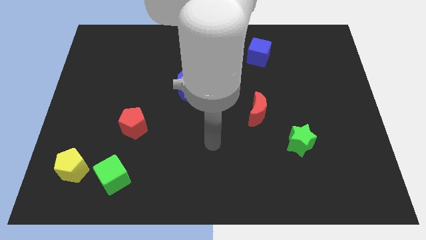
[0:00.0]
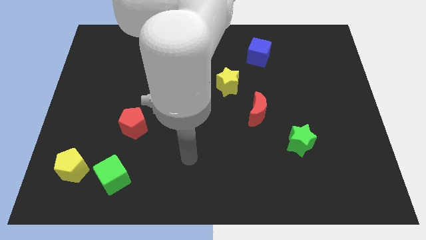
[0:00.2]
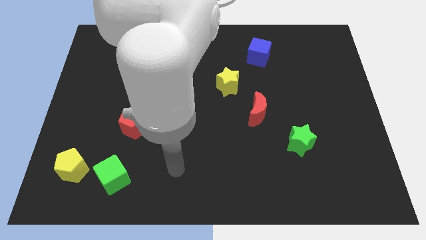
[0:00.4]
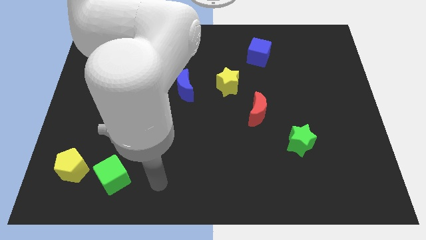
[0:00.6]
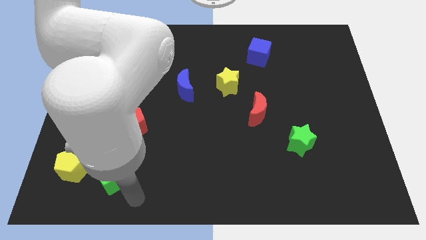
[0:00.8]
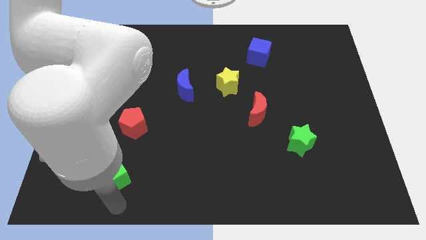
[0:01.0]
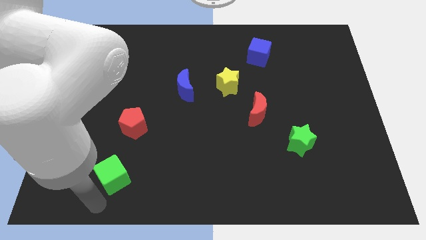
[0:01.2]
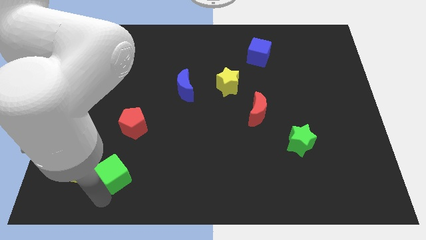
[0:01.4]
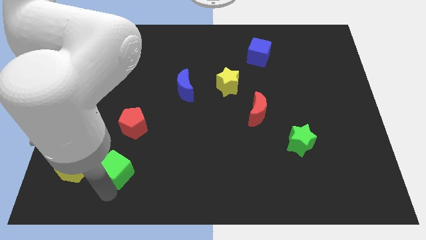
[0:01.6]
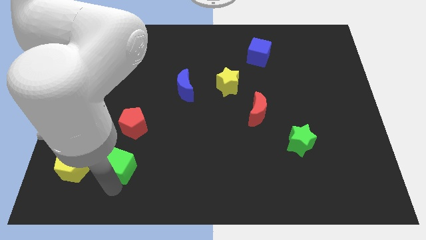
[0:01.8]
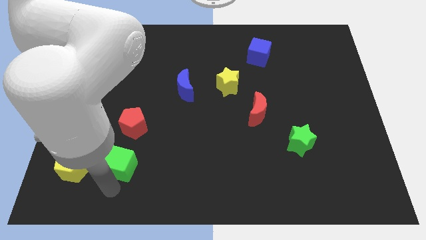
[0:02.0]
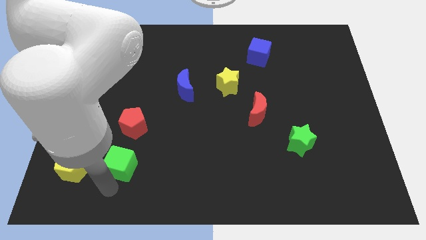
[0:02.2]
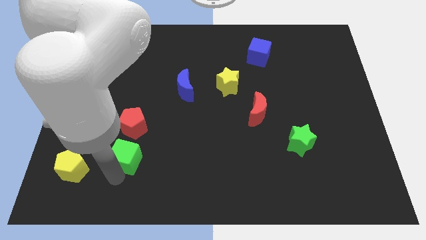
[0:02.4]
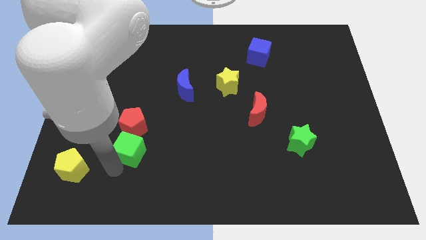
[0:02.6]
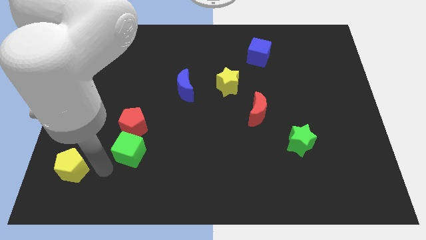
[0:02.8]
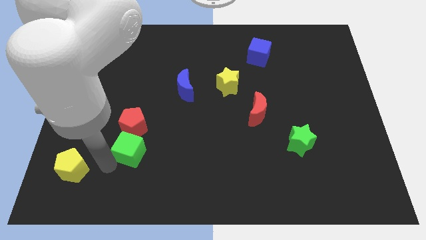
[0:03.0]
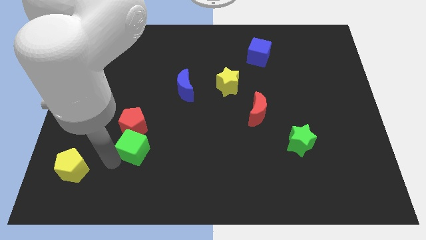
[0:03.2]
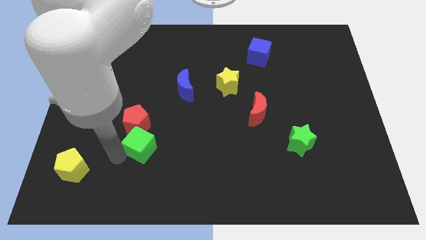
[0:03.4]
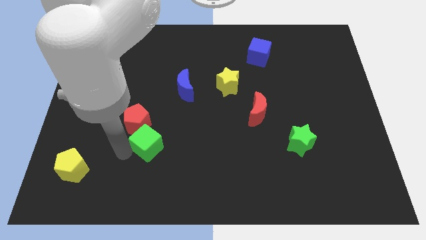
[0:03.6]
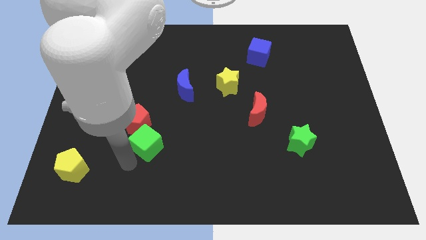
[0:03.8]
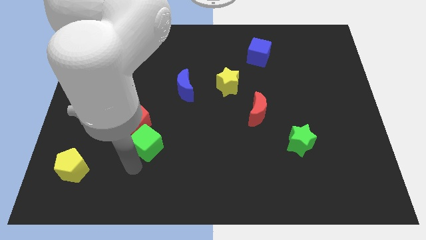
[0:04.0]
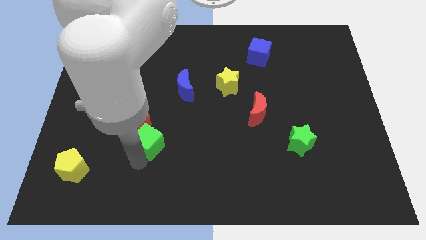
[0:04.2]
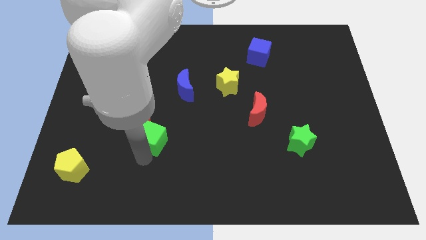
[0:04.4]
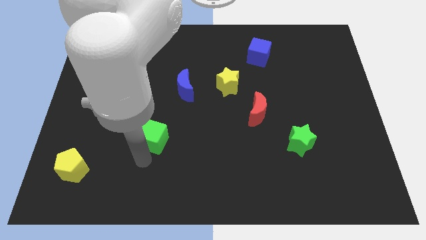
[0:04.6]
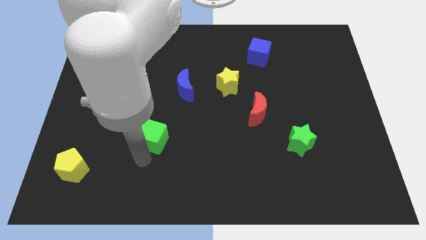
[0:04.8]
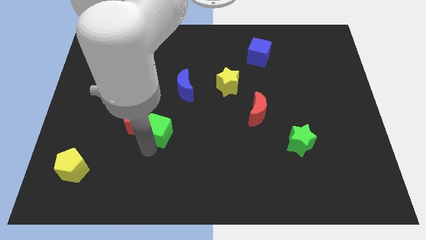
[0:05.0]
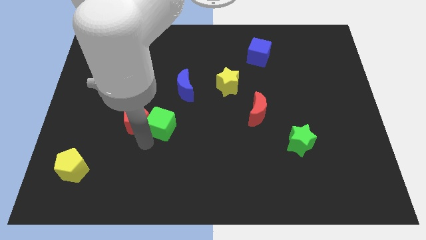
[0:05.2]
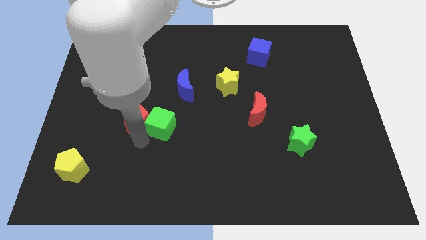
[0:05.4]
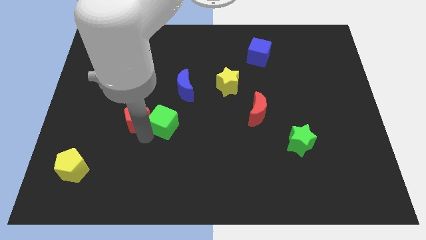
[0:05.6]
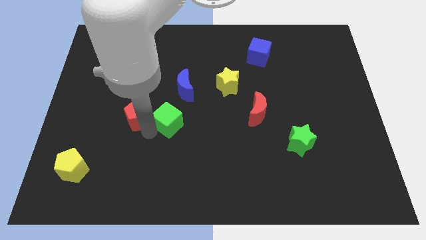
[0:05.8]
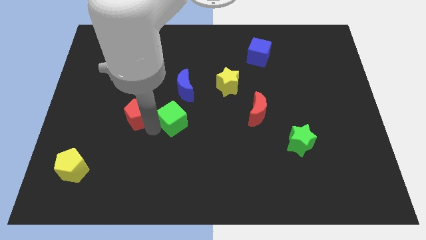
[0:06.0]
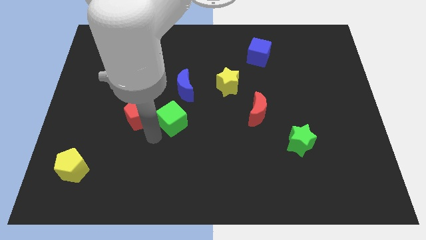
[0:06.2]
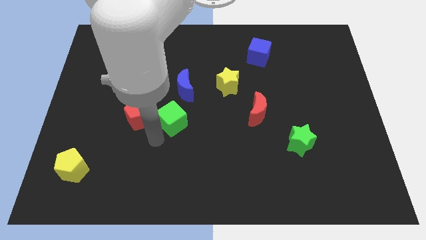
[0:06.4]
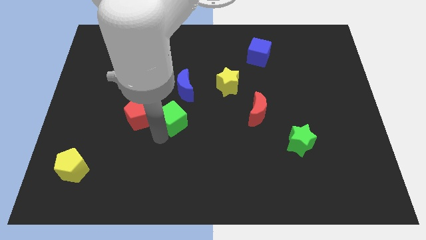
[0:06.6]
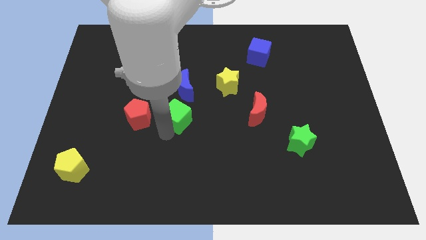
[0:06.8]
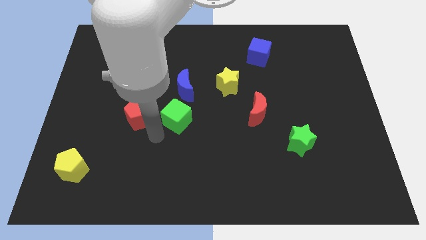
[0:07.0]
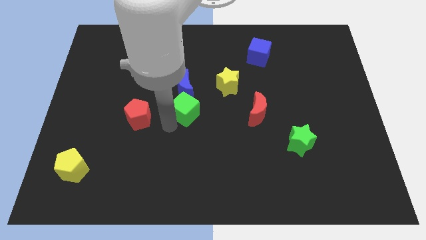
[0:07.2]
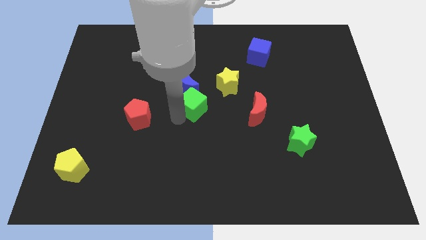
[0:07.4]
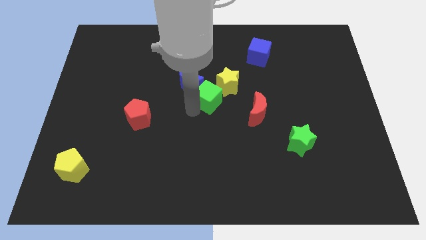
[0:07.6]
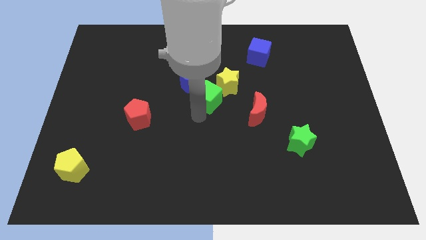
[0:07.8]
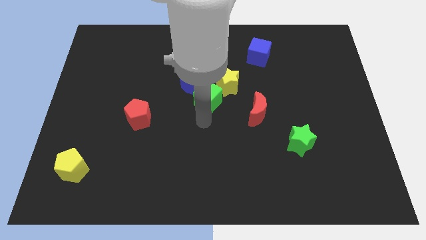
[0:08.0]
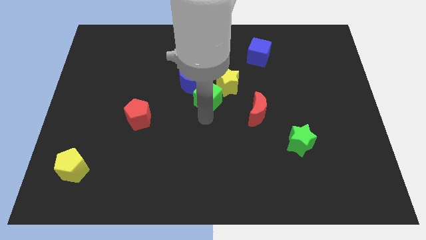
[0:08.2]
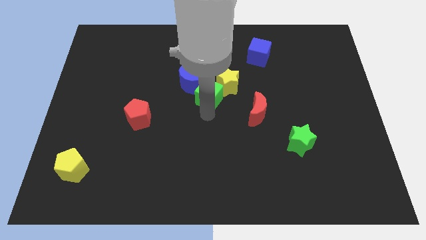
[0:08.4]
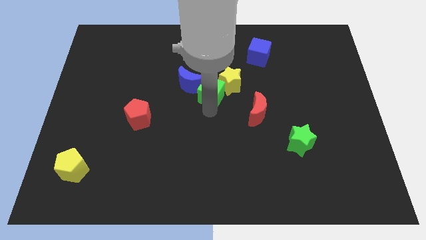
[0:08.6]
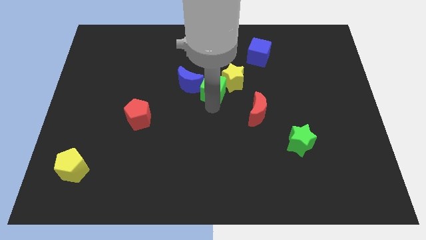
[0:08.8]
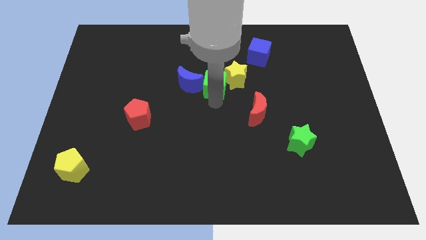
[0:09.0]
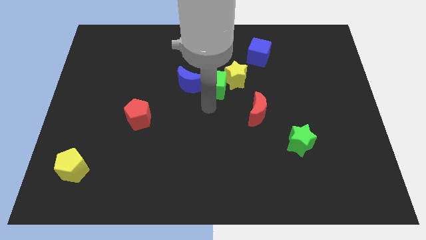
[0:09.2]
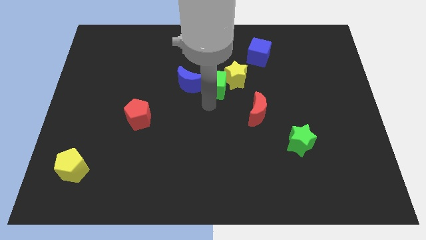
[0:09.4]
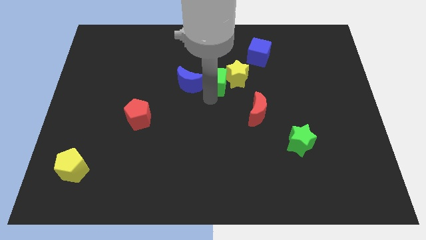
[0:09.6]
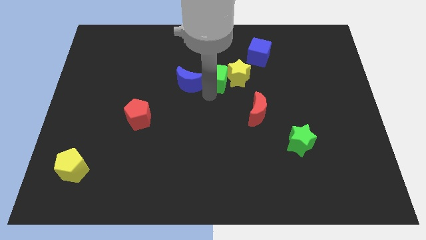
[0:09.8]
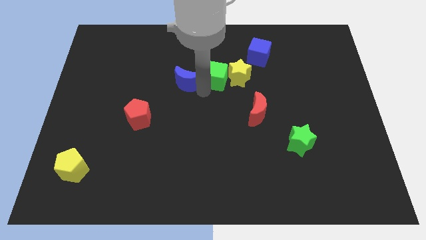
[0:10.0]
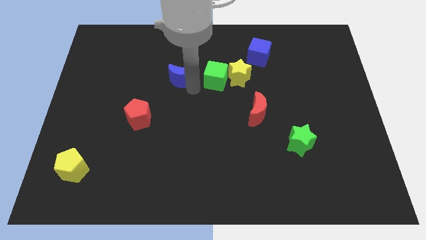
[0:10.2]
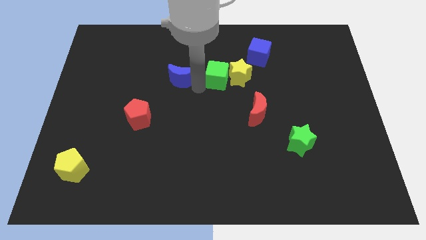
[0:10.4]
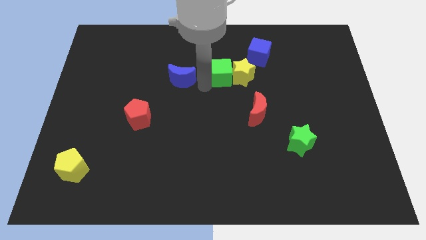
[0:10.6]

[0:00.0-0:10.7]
move the green cube diagonally down and to the left of the blue cube

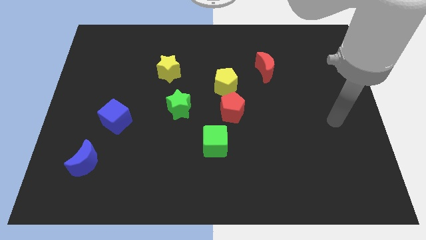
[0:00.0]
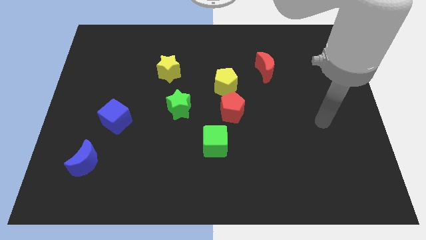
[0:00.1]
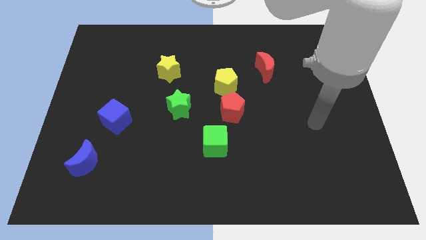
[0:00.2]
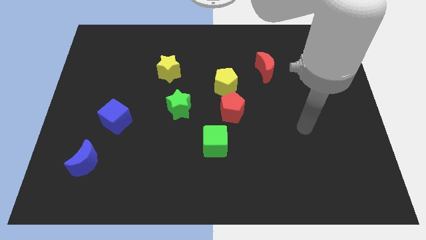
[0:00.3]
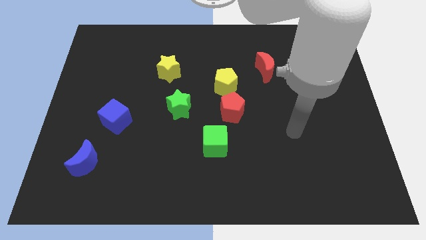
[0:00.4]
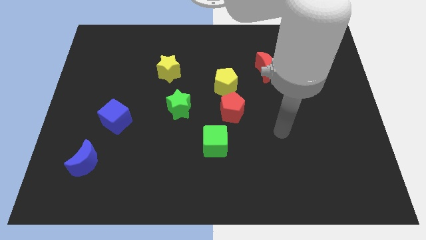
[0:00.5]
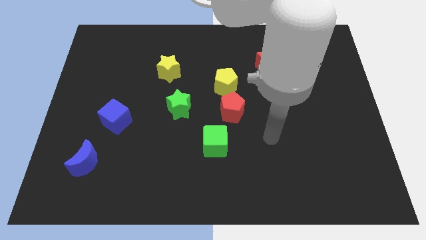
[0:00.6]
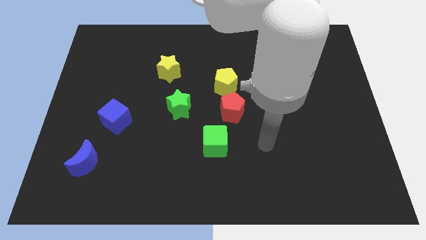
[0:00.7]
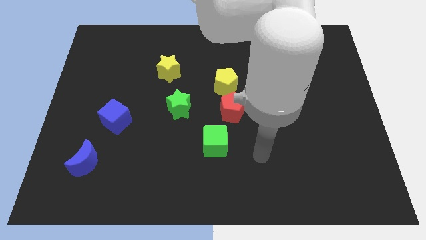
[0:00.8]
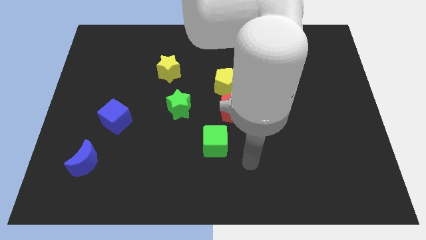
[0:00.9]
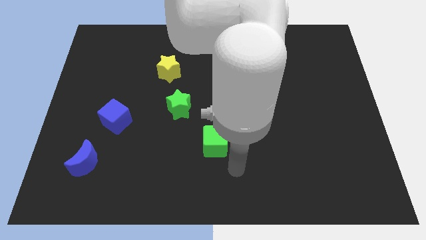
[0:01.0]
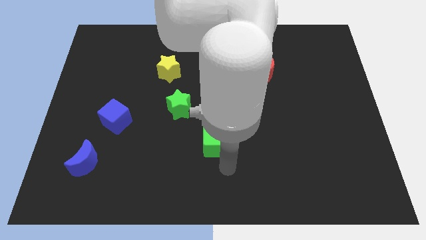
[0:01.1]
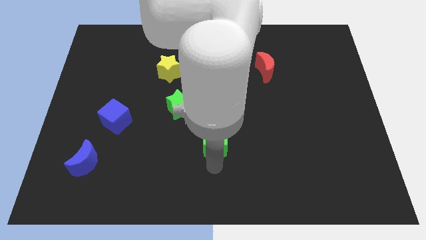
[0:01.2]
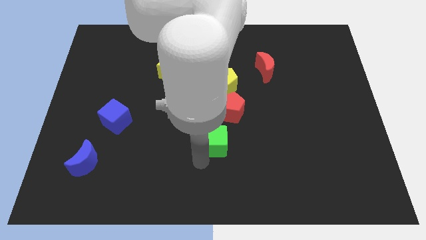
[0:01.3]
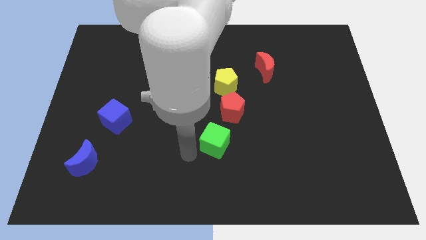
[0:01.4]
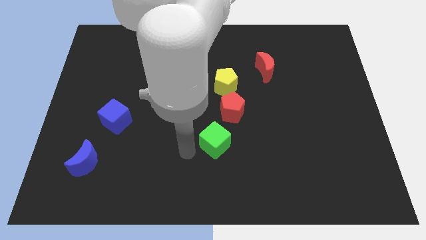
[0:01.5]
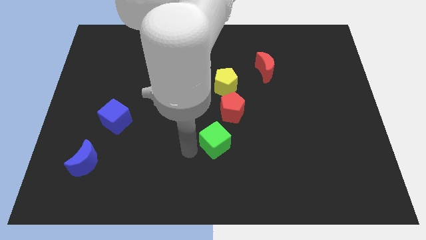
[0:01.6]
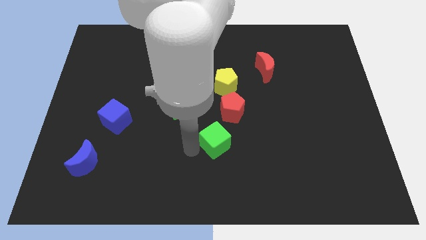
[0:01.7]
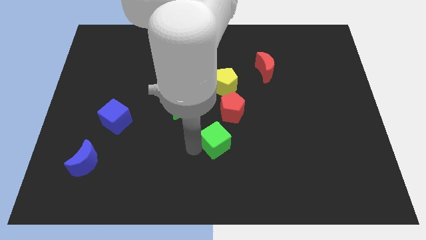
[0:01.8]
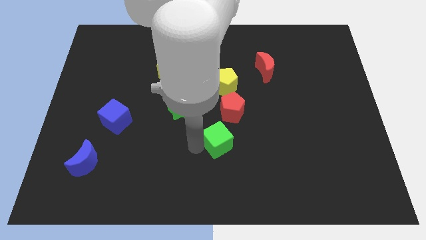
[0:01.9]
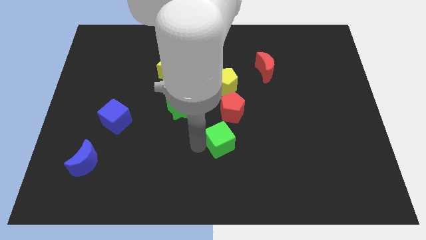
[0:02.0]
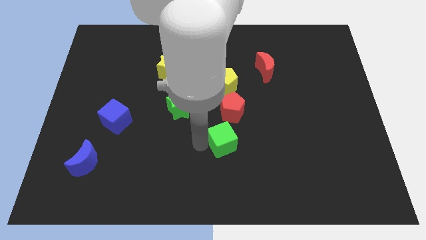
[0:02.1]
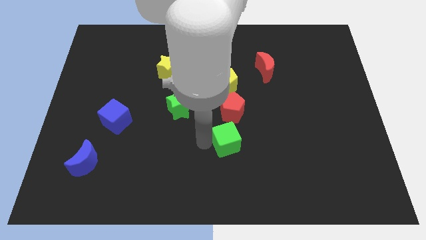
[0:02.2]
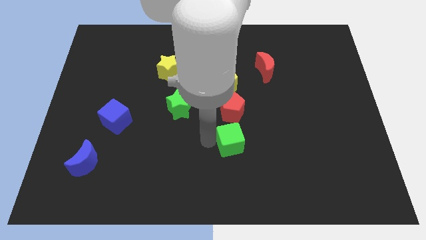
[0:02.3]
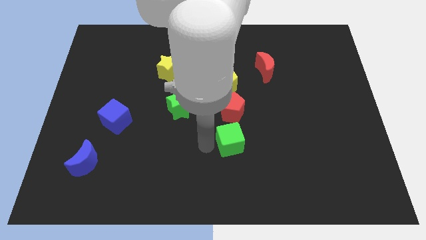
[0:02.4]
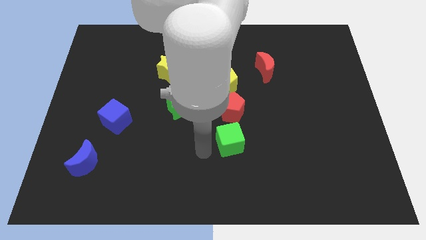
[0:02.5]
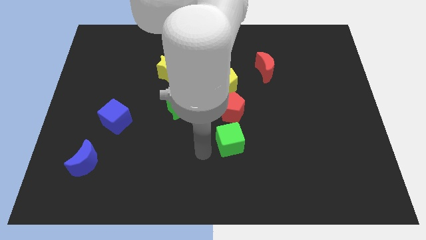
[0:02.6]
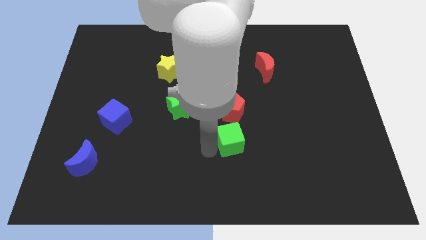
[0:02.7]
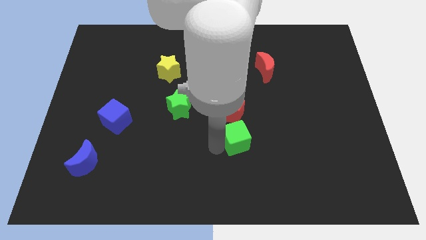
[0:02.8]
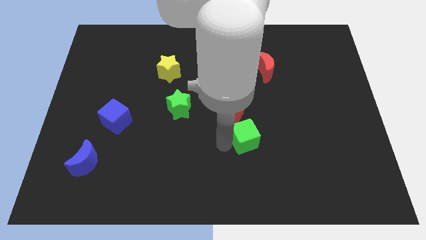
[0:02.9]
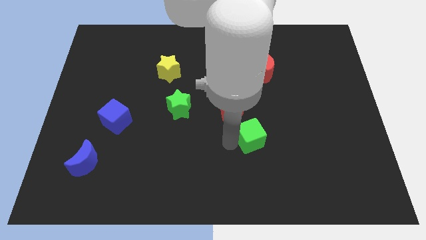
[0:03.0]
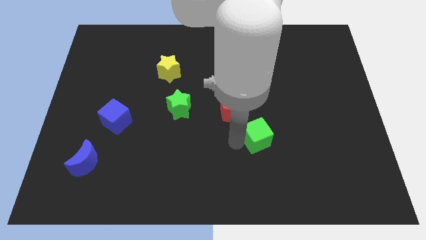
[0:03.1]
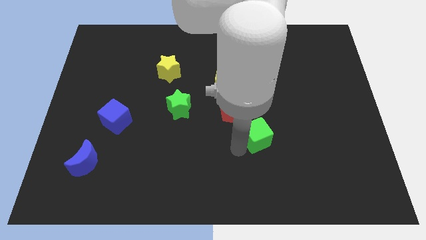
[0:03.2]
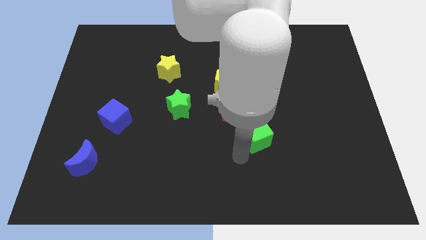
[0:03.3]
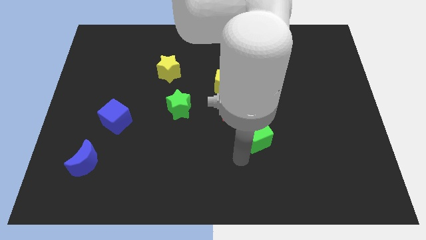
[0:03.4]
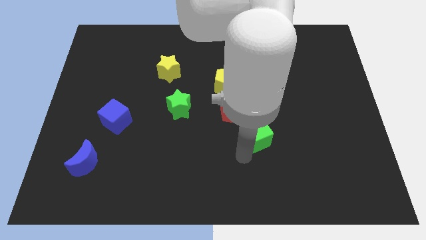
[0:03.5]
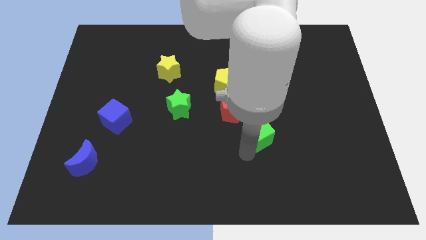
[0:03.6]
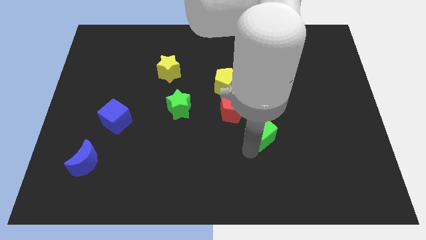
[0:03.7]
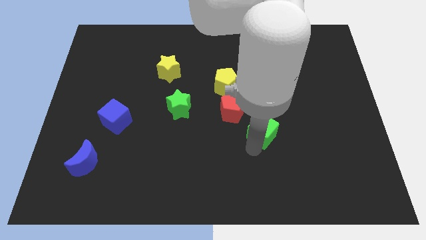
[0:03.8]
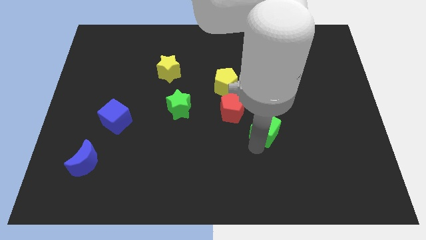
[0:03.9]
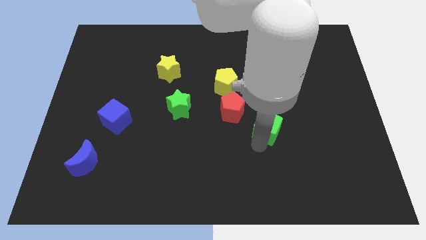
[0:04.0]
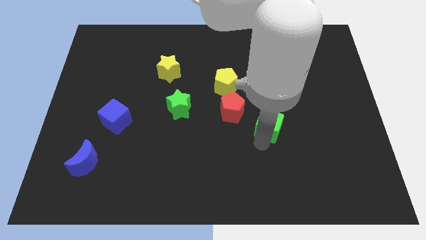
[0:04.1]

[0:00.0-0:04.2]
push the green cube right of the red pentagon
